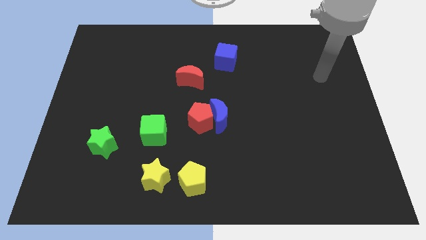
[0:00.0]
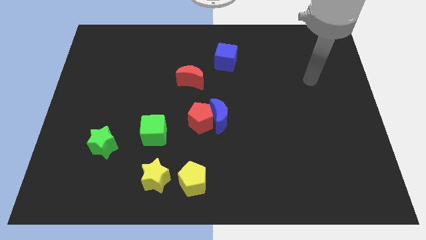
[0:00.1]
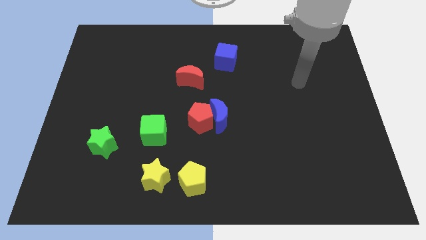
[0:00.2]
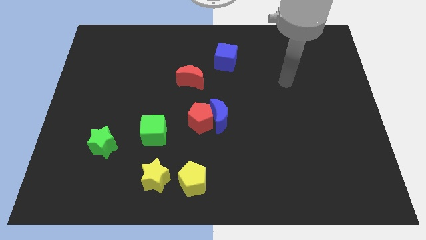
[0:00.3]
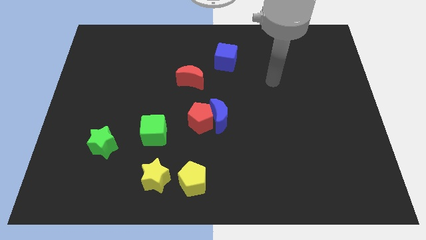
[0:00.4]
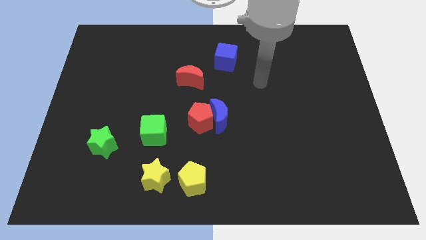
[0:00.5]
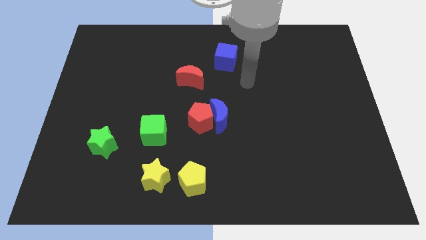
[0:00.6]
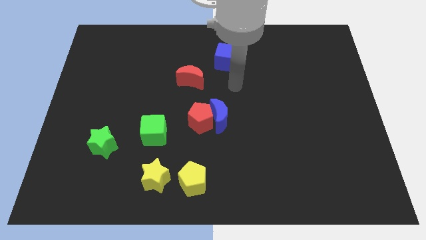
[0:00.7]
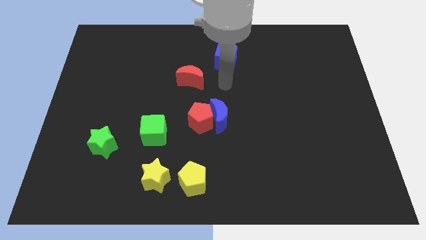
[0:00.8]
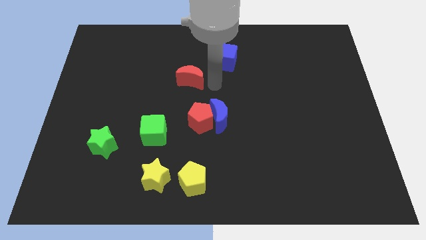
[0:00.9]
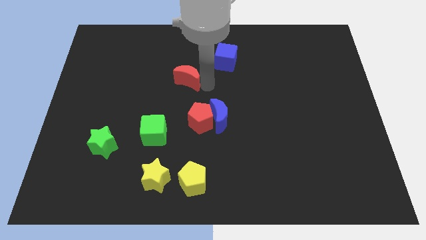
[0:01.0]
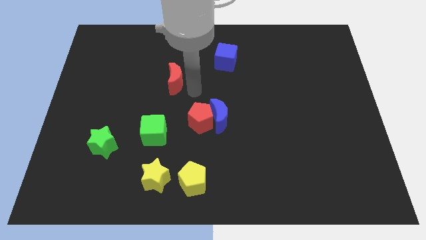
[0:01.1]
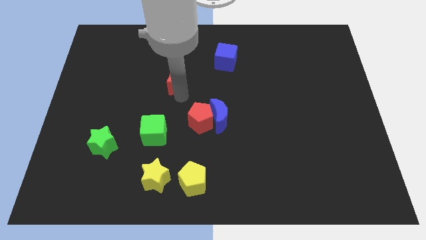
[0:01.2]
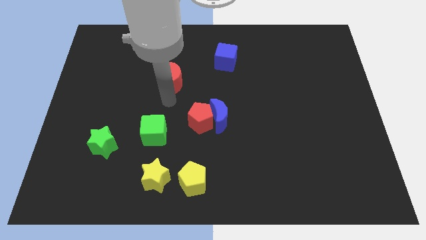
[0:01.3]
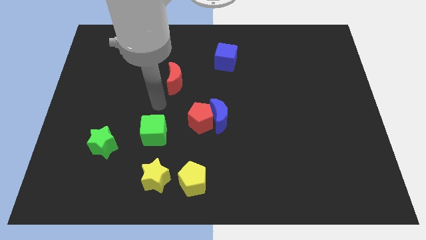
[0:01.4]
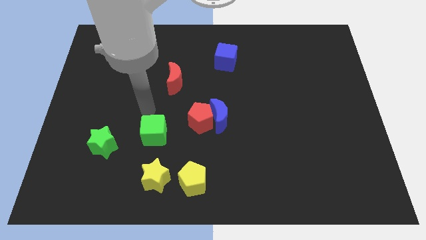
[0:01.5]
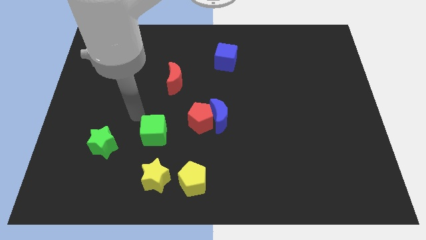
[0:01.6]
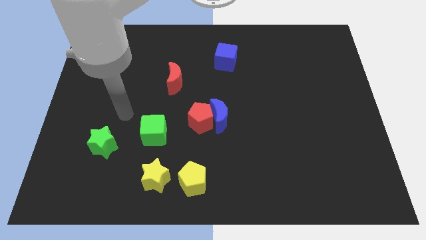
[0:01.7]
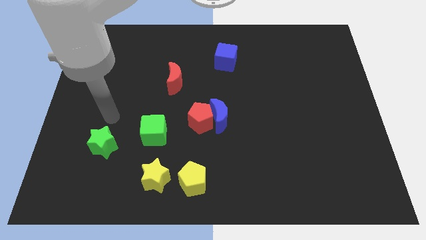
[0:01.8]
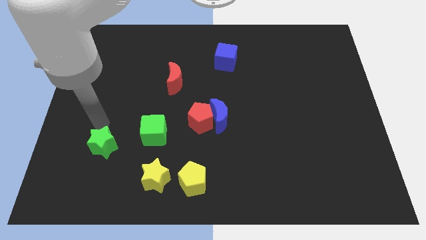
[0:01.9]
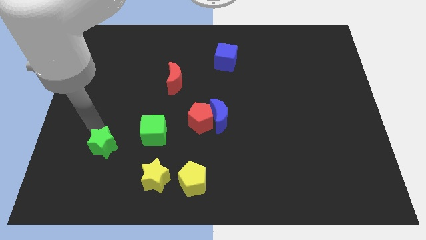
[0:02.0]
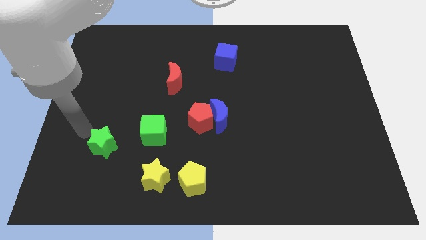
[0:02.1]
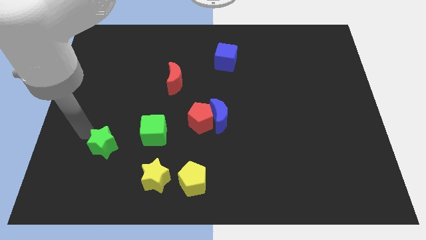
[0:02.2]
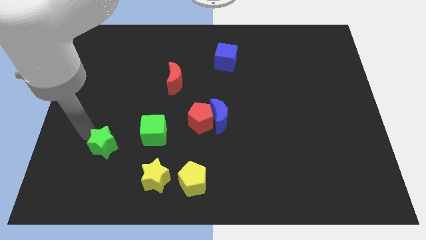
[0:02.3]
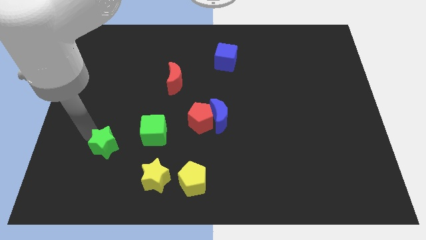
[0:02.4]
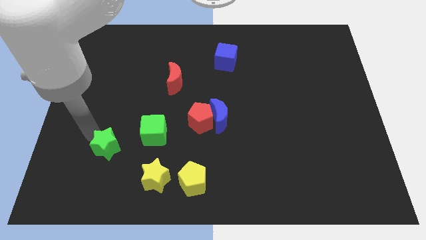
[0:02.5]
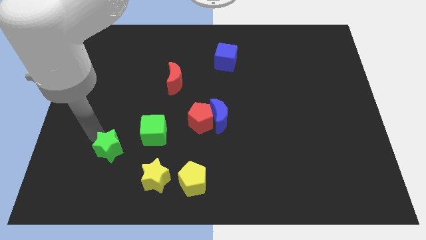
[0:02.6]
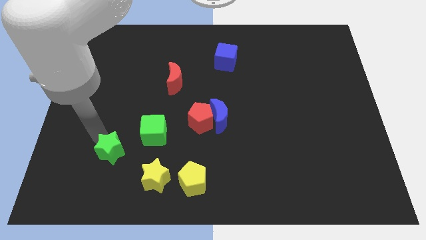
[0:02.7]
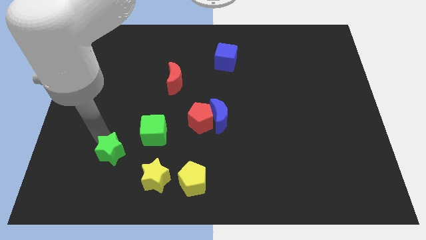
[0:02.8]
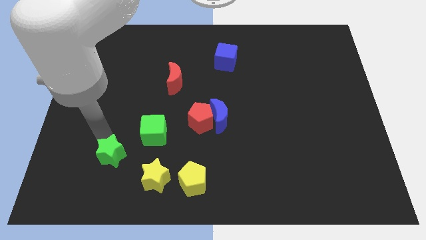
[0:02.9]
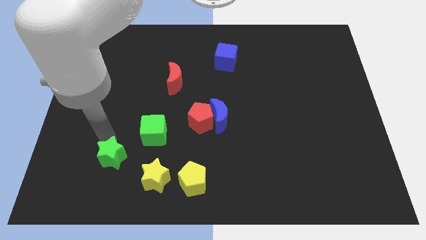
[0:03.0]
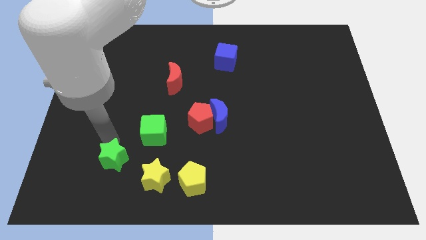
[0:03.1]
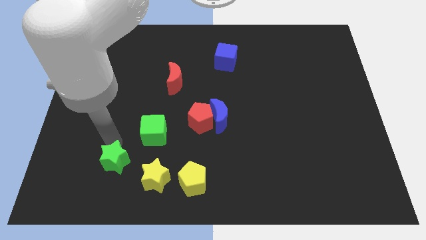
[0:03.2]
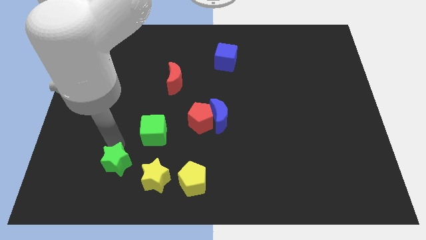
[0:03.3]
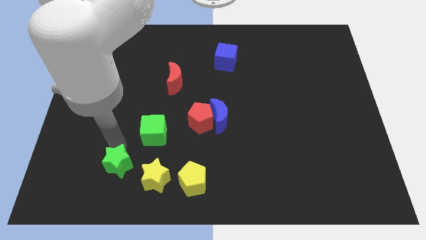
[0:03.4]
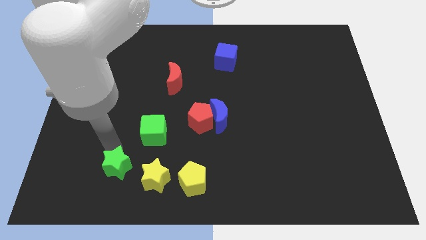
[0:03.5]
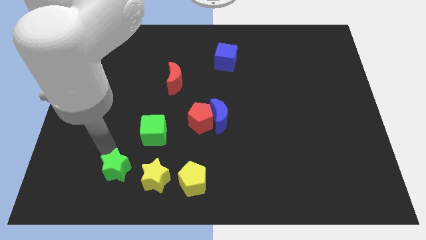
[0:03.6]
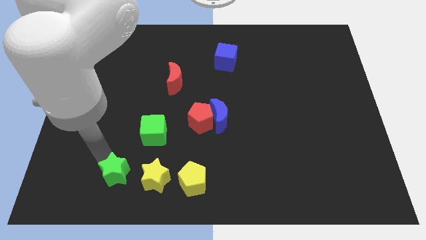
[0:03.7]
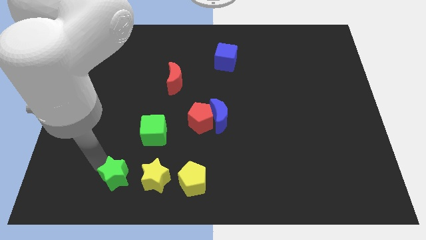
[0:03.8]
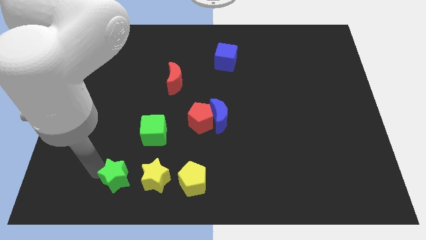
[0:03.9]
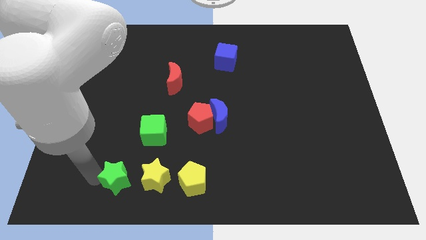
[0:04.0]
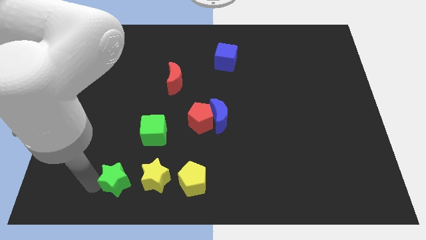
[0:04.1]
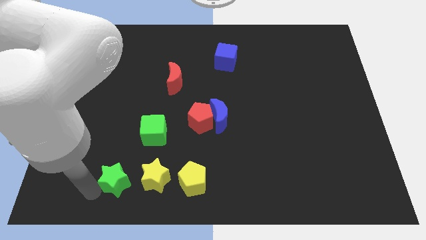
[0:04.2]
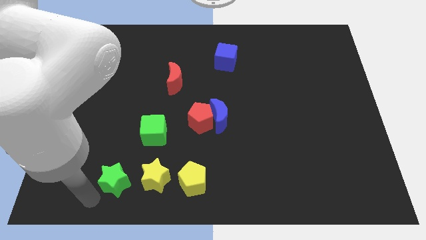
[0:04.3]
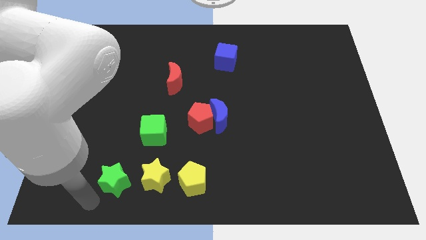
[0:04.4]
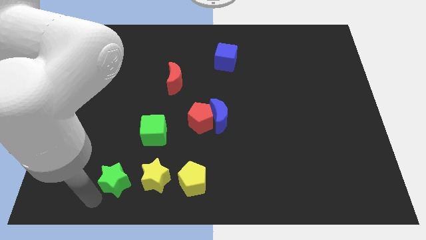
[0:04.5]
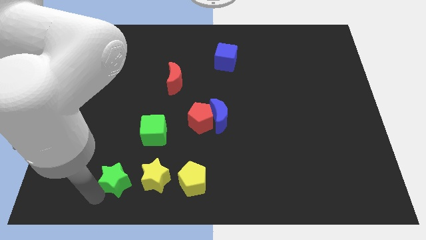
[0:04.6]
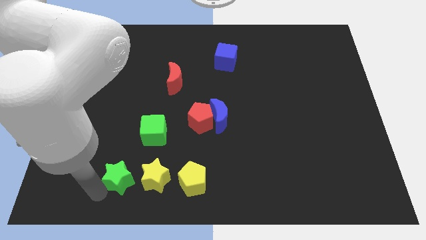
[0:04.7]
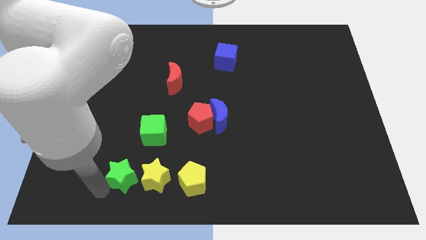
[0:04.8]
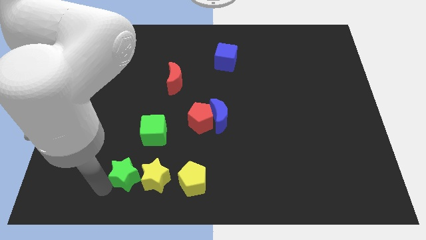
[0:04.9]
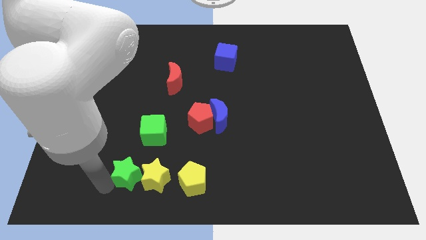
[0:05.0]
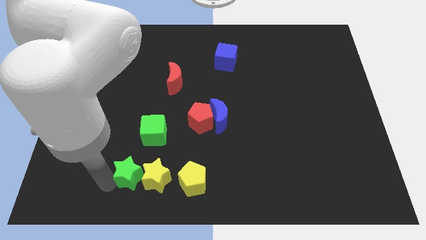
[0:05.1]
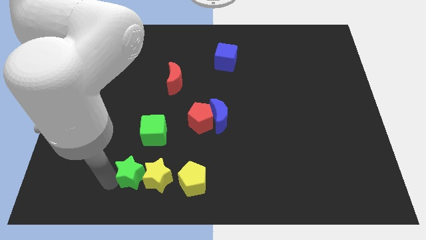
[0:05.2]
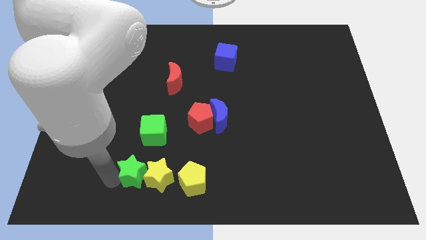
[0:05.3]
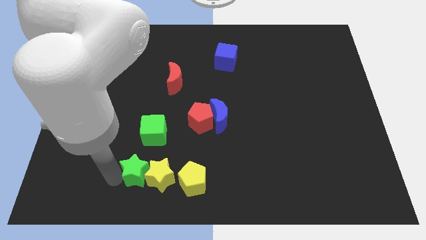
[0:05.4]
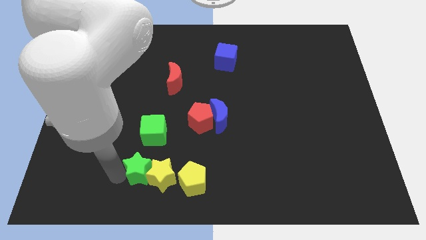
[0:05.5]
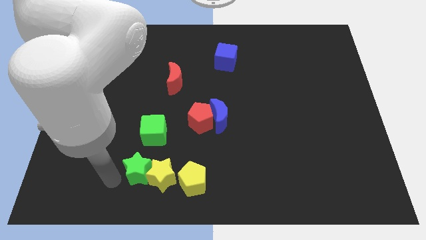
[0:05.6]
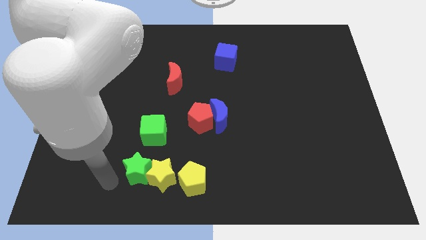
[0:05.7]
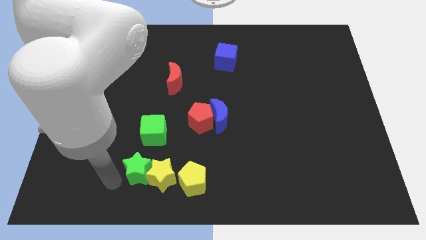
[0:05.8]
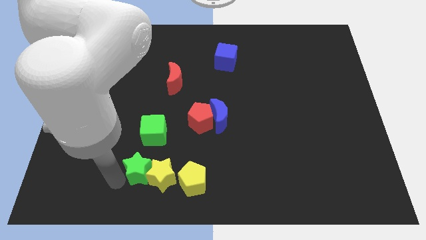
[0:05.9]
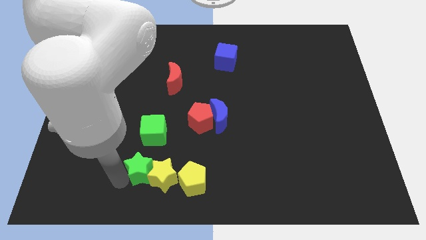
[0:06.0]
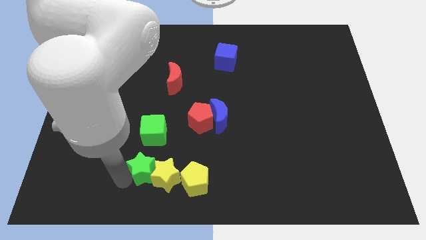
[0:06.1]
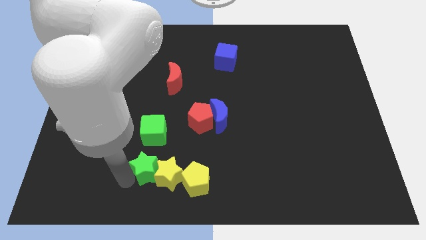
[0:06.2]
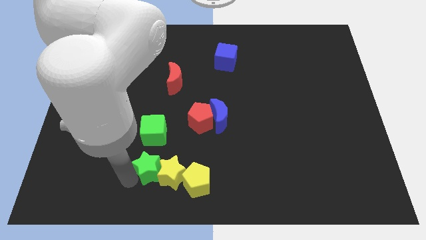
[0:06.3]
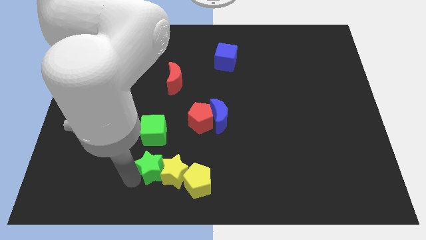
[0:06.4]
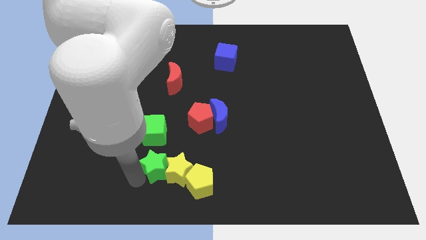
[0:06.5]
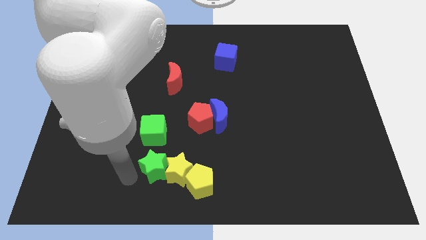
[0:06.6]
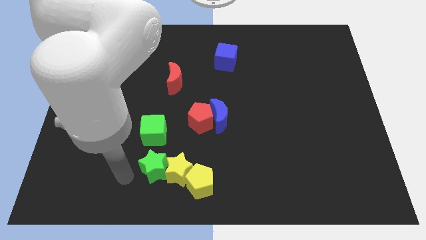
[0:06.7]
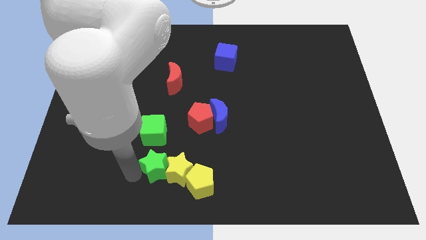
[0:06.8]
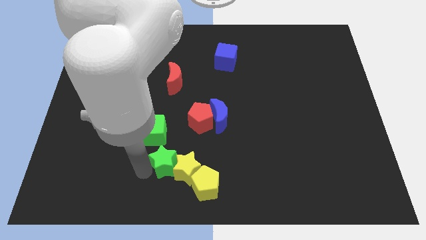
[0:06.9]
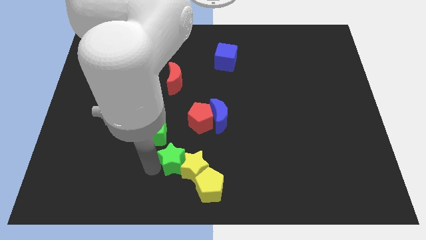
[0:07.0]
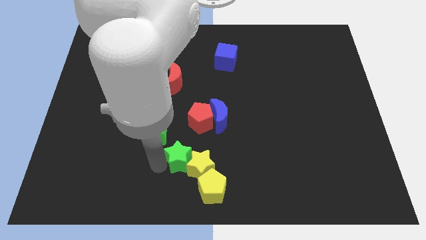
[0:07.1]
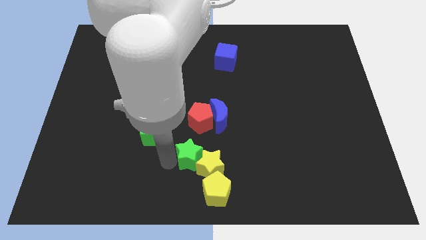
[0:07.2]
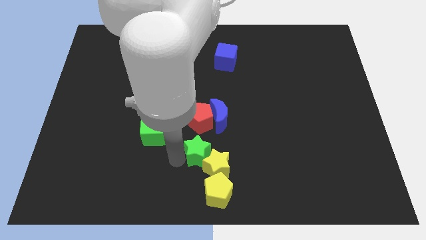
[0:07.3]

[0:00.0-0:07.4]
move the green star right

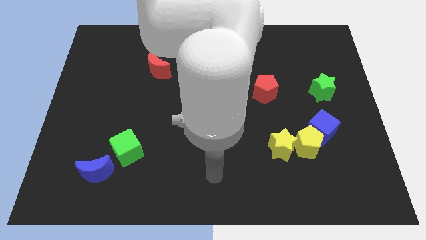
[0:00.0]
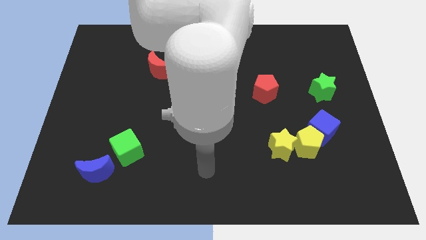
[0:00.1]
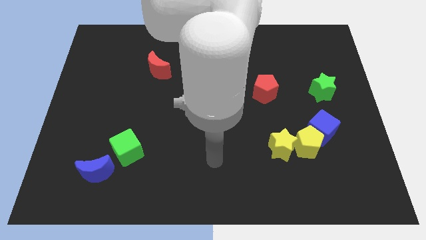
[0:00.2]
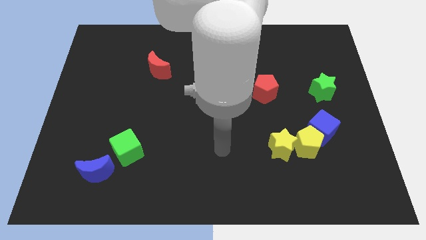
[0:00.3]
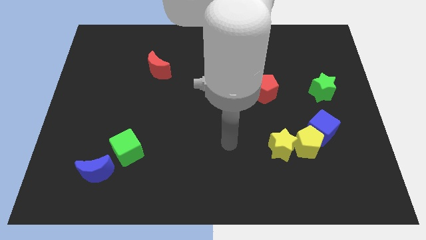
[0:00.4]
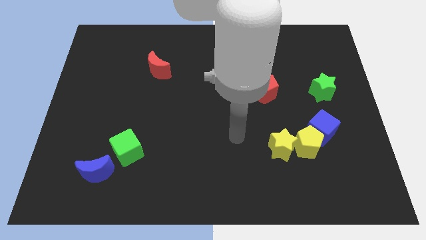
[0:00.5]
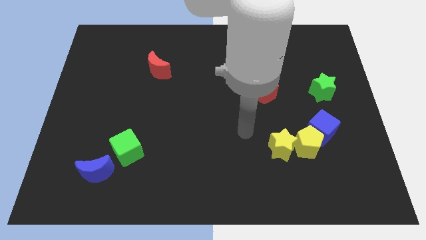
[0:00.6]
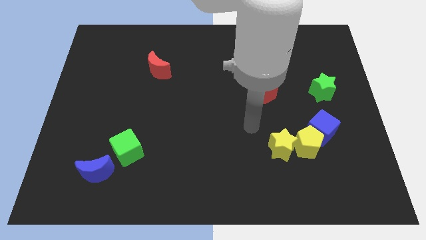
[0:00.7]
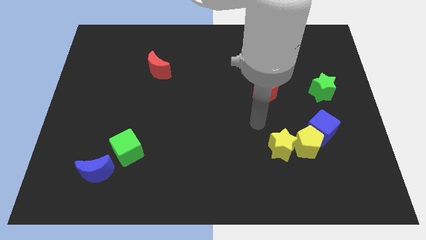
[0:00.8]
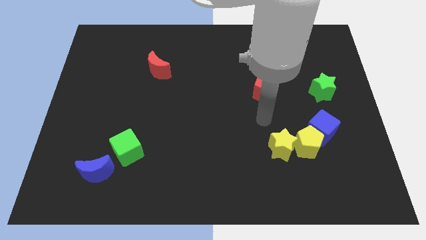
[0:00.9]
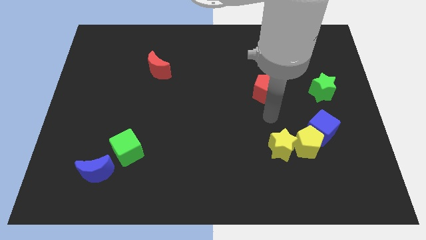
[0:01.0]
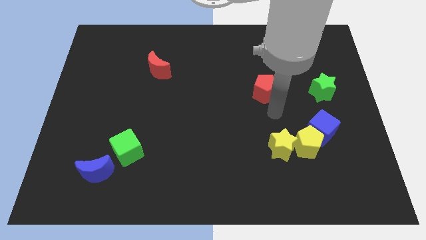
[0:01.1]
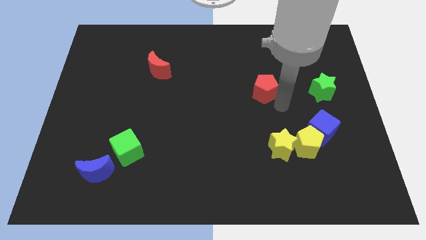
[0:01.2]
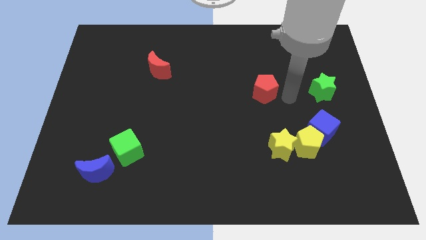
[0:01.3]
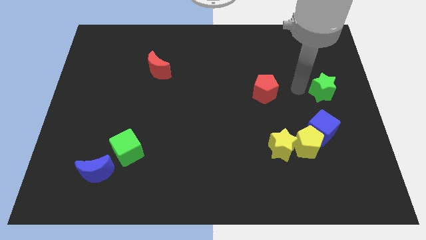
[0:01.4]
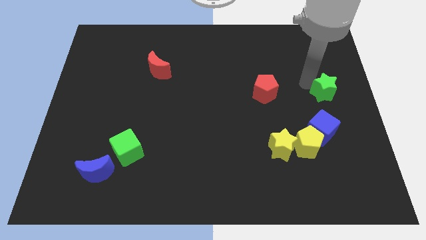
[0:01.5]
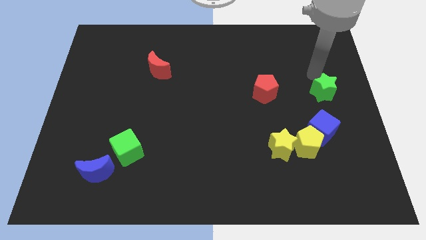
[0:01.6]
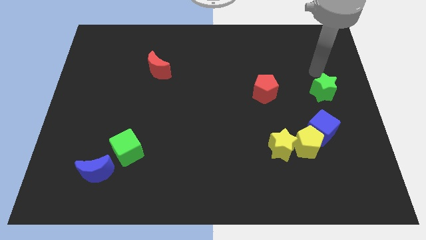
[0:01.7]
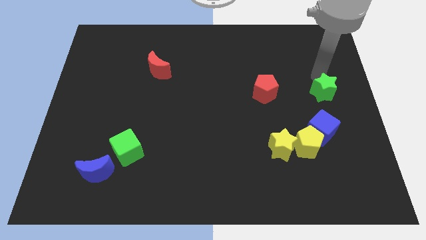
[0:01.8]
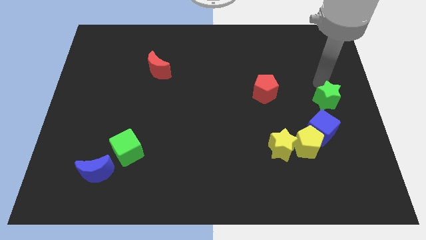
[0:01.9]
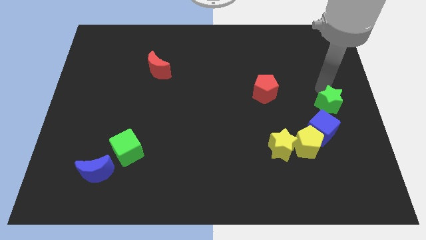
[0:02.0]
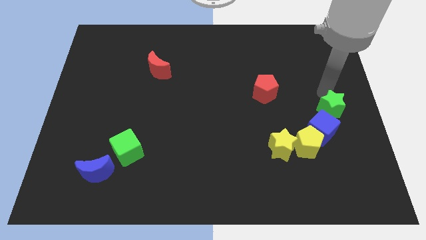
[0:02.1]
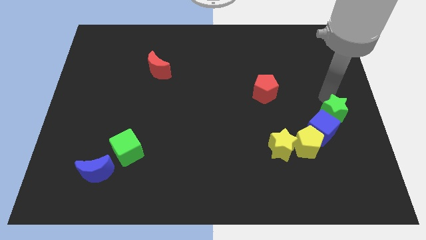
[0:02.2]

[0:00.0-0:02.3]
slide the green star down a little
